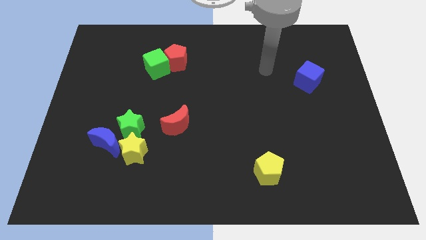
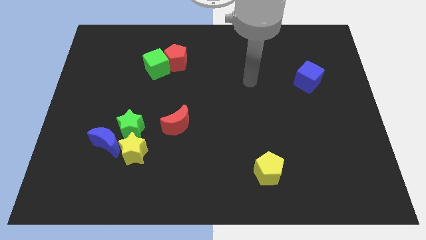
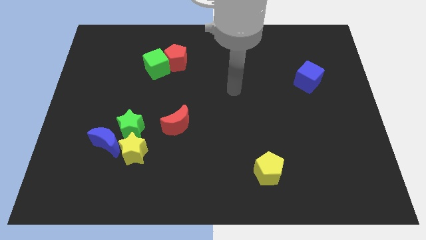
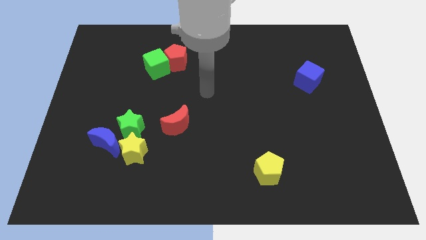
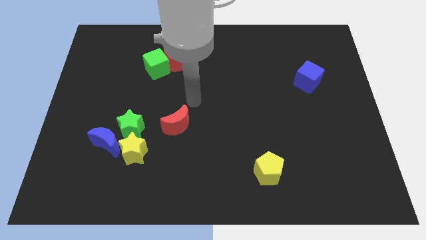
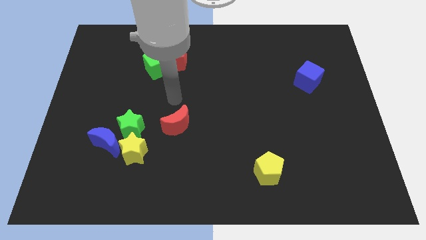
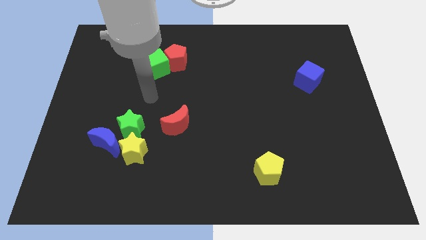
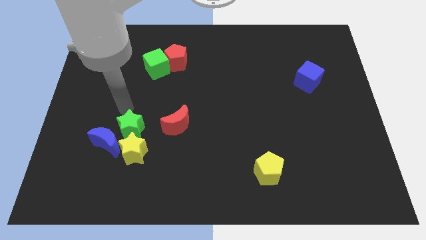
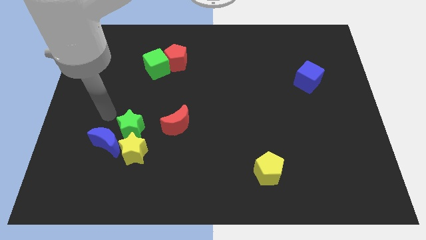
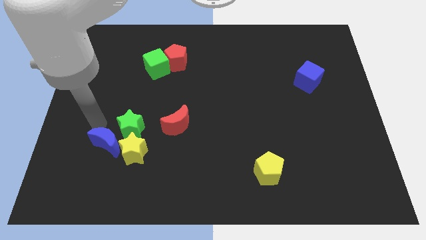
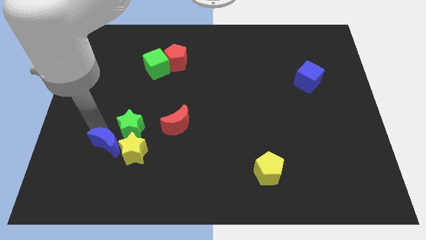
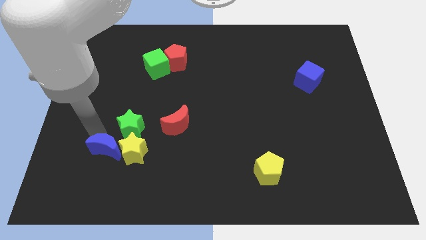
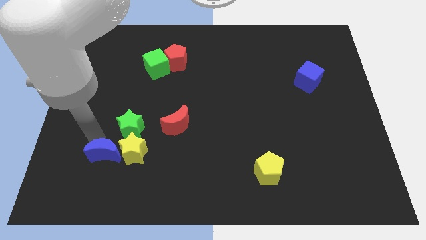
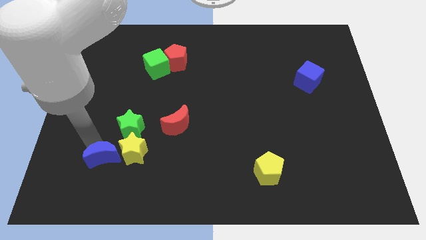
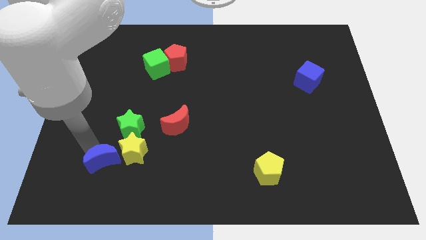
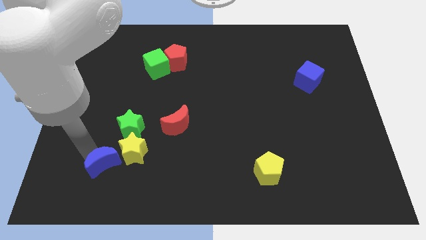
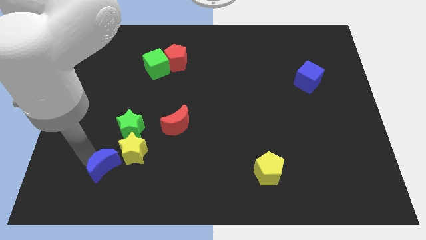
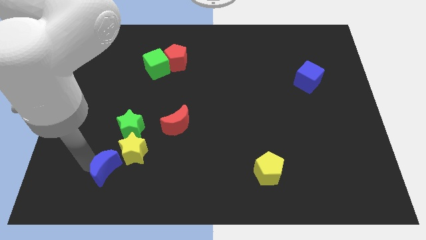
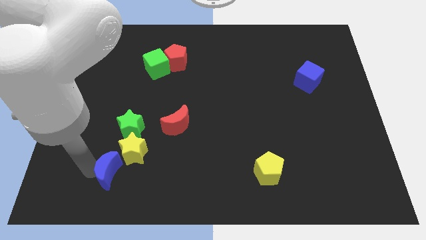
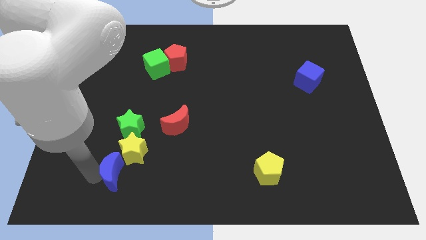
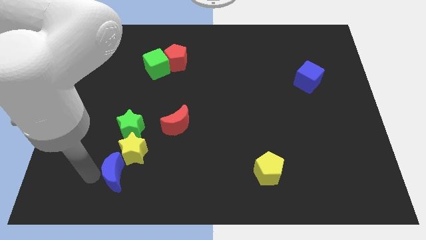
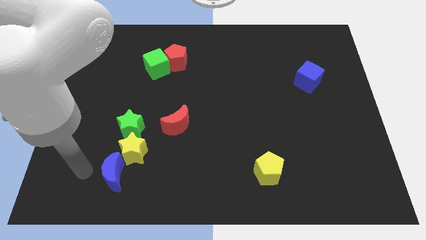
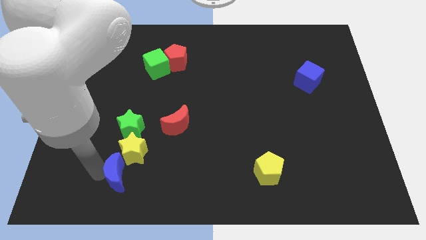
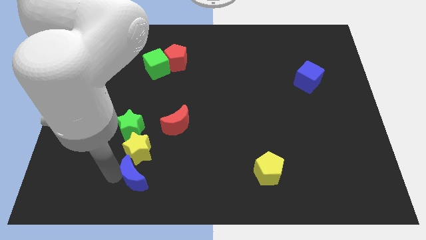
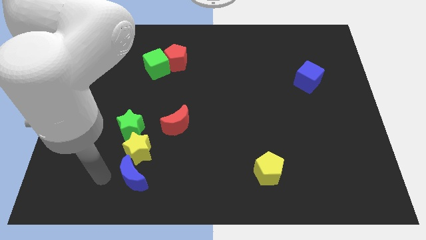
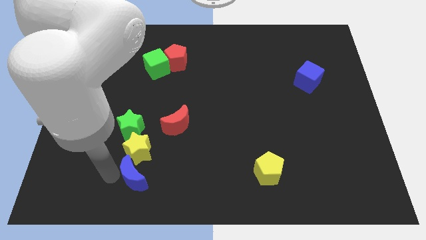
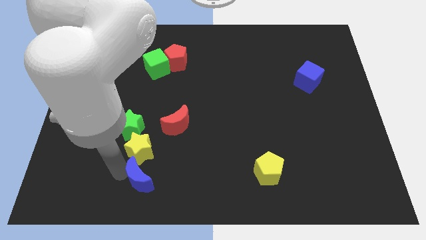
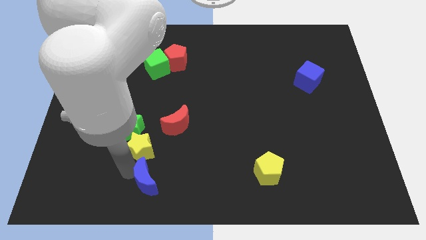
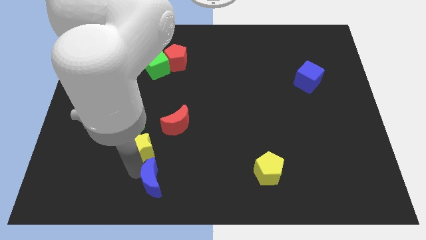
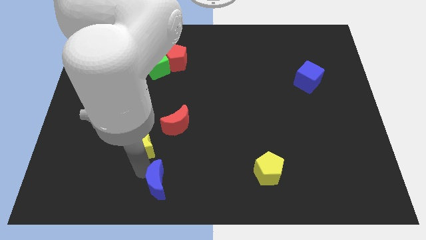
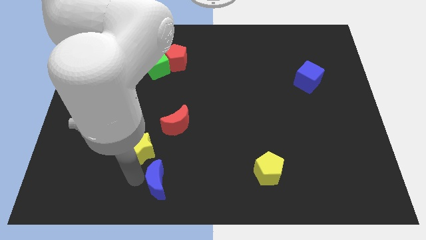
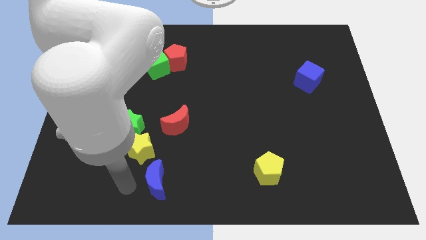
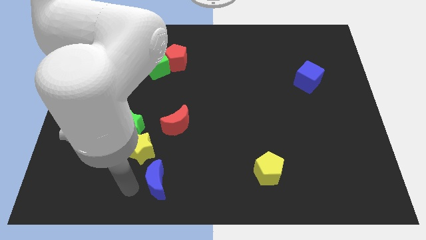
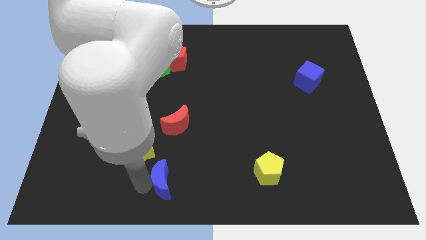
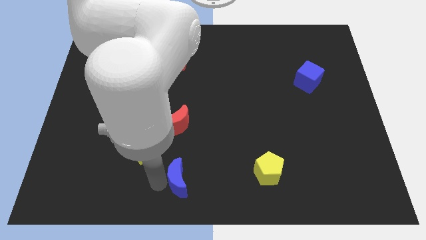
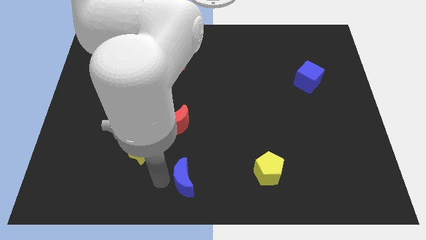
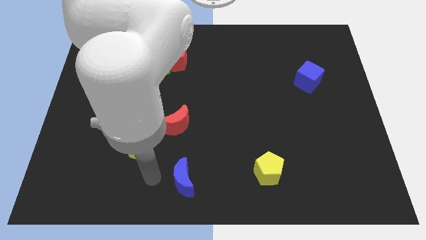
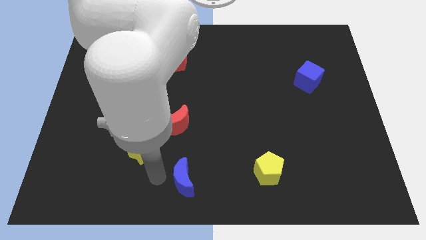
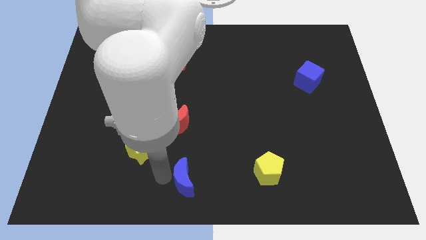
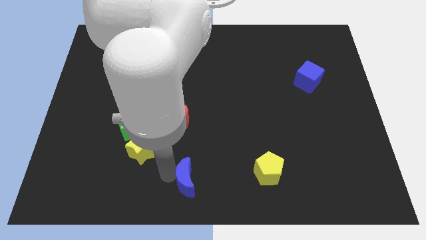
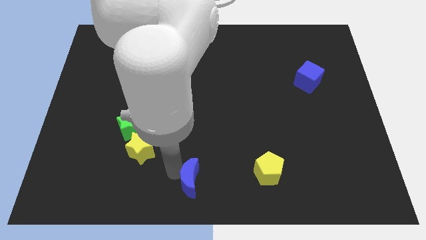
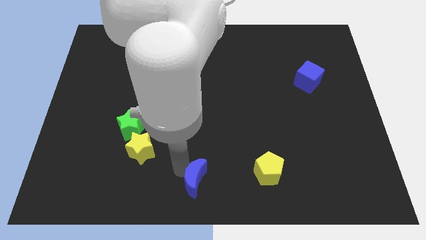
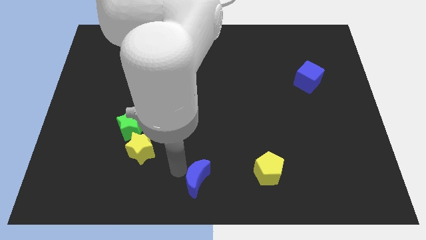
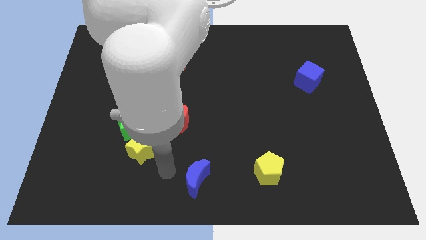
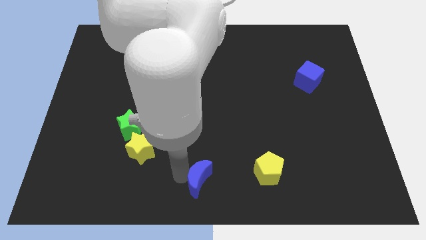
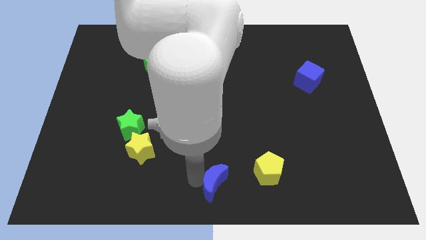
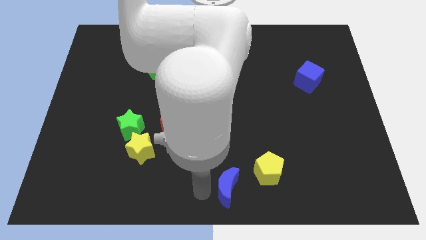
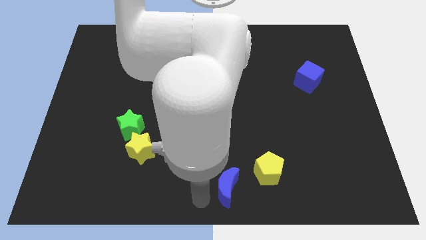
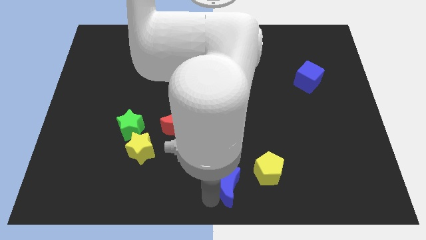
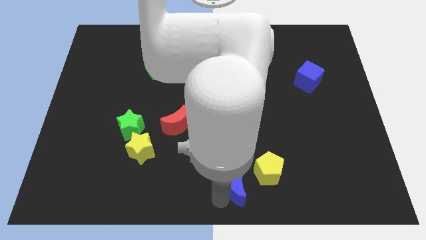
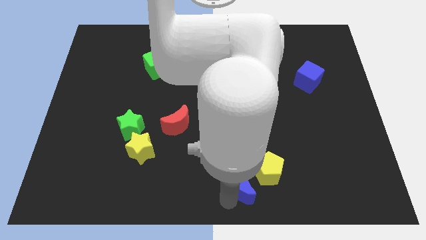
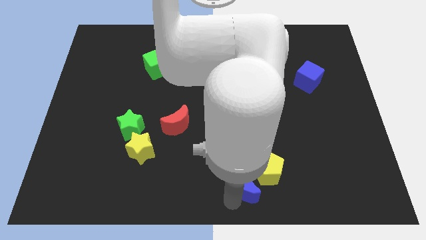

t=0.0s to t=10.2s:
slide the blue moon close to the yellow pentagon

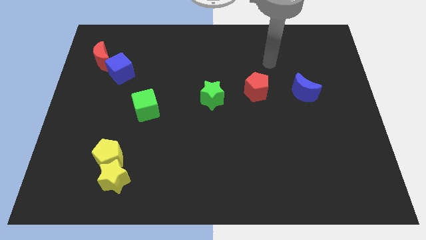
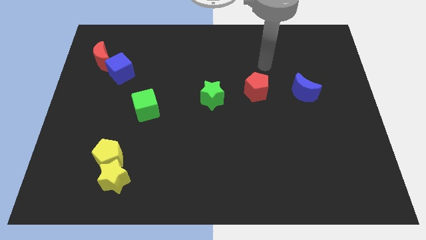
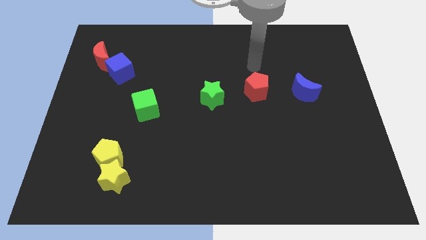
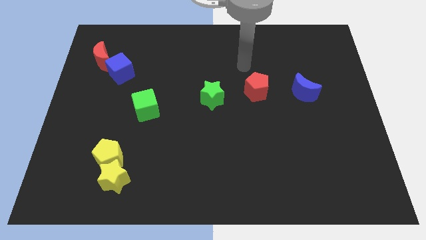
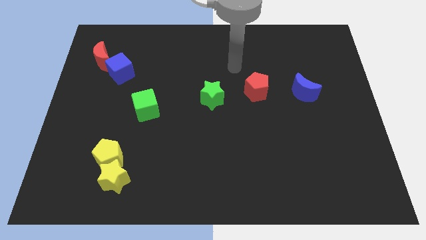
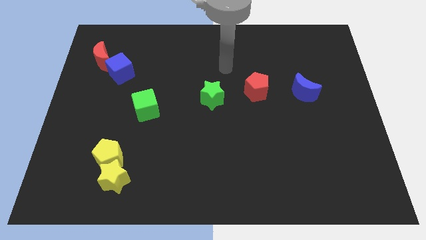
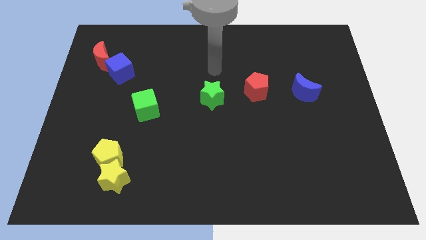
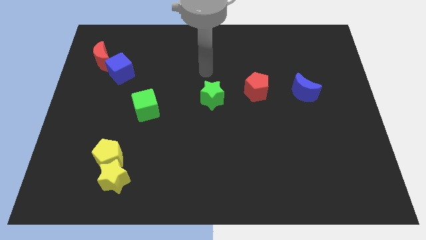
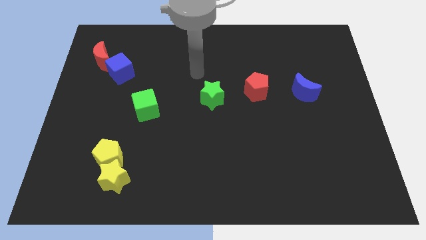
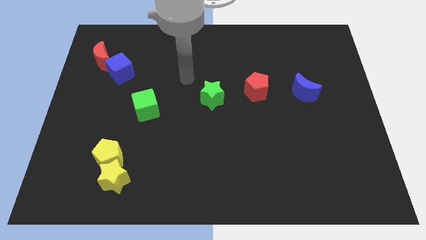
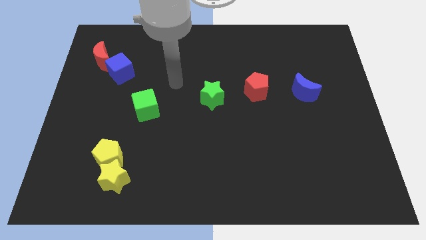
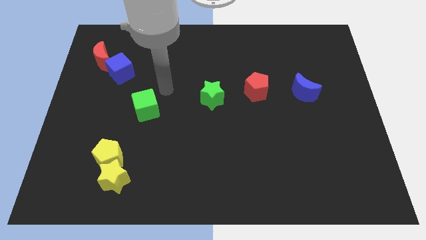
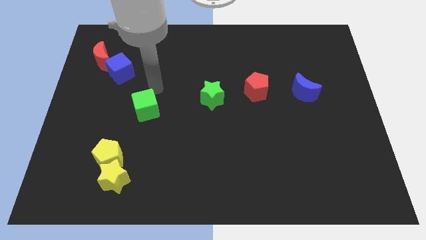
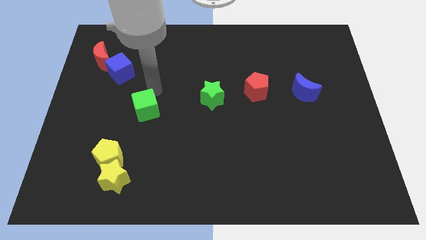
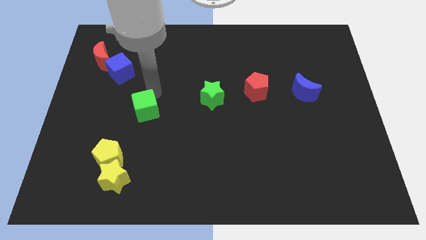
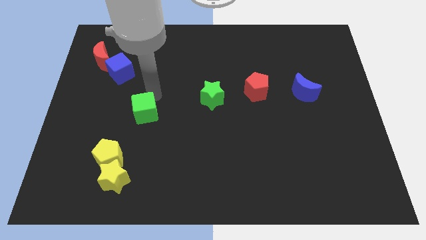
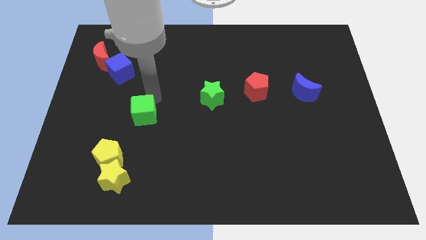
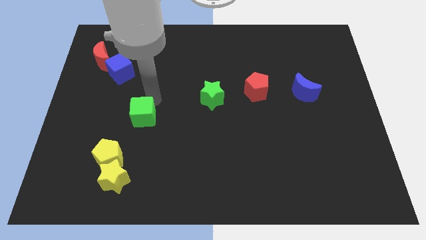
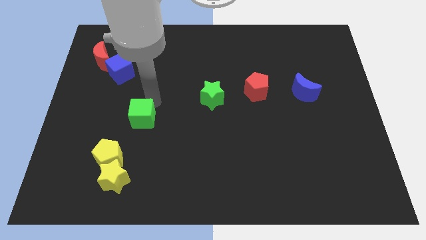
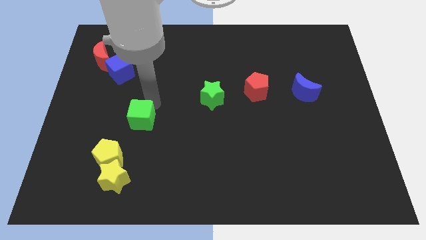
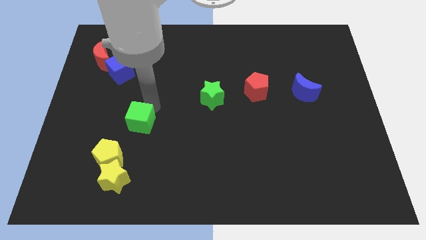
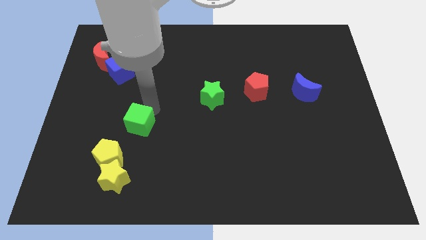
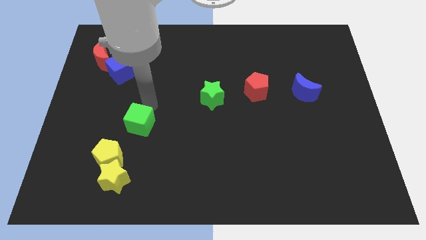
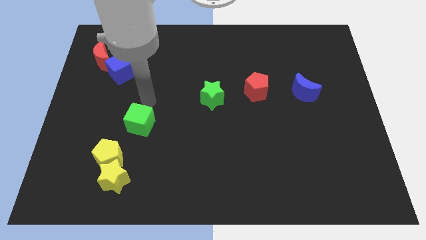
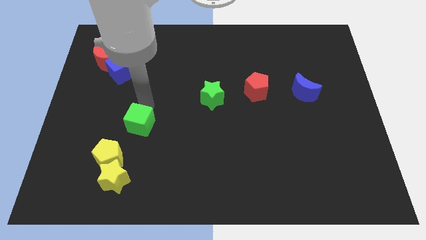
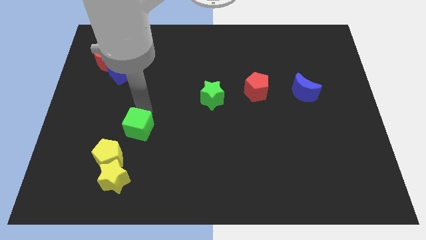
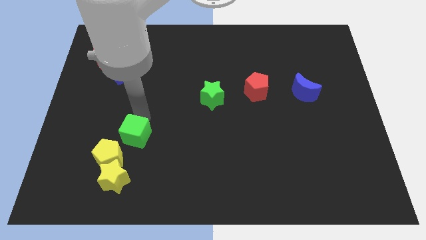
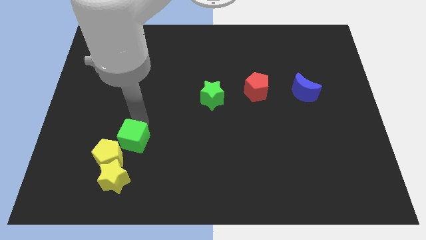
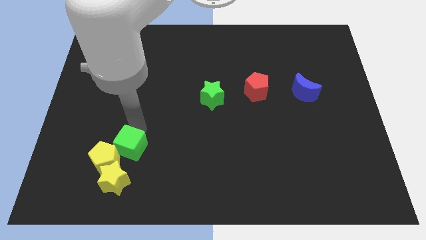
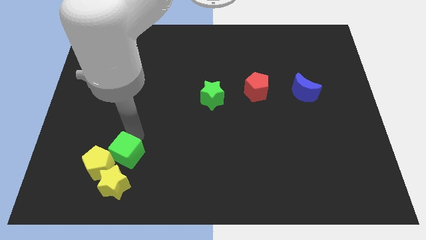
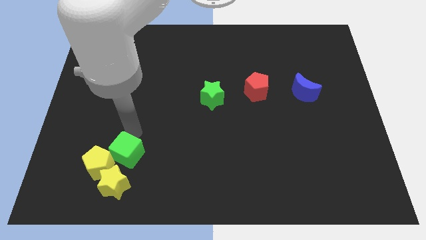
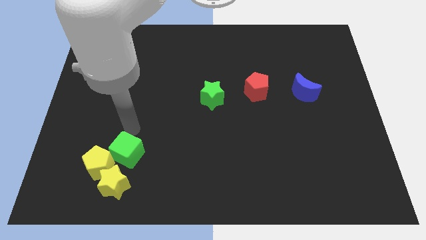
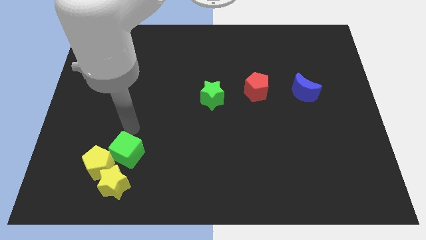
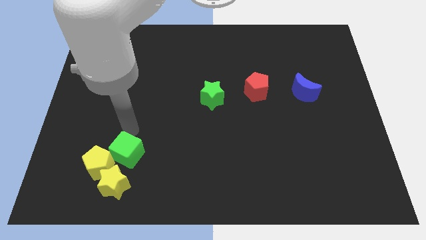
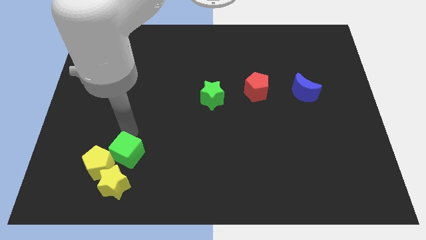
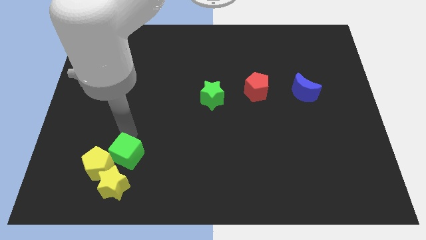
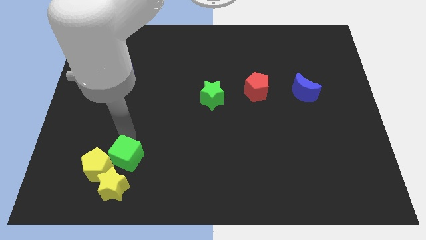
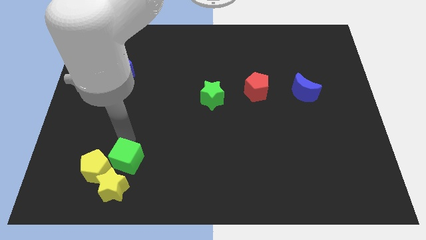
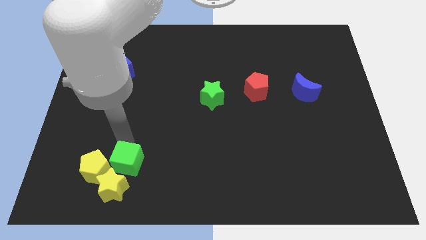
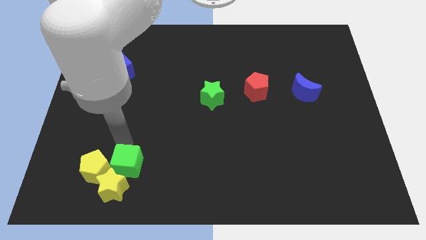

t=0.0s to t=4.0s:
put the green cube towards the yellow star
